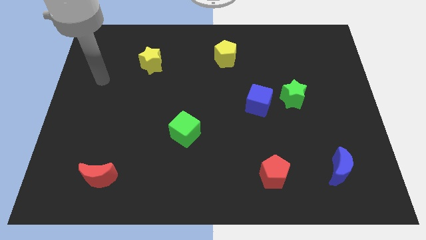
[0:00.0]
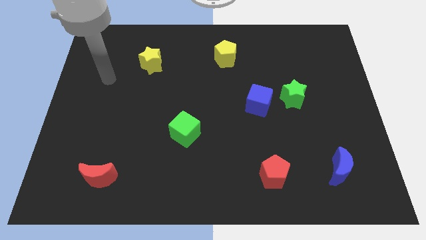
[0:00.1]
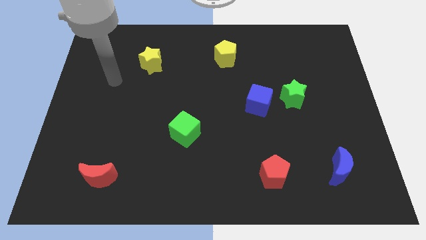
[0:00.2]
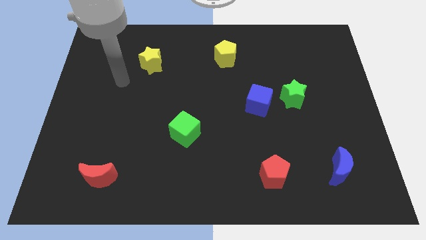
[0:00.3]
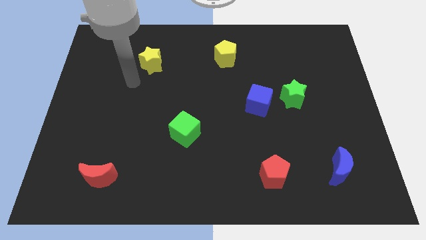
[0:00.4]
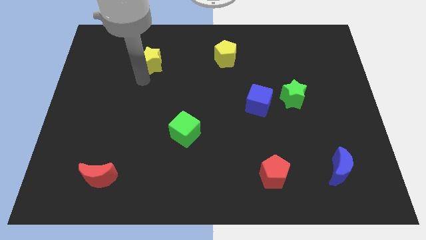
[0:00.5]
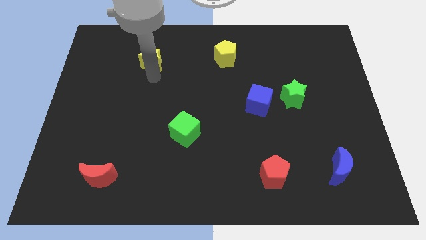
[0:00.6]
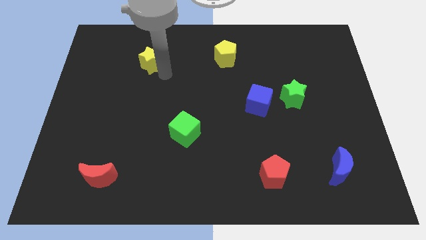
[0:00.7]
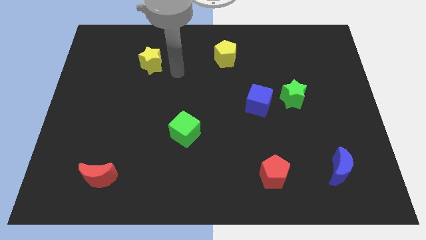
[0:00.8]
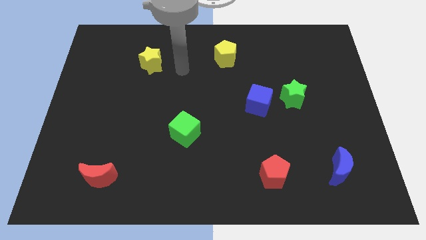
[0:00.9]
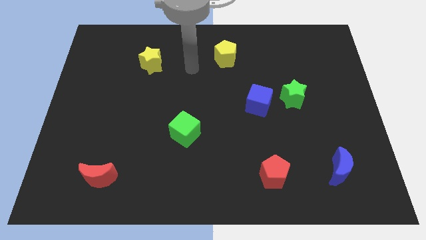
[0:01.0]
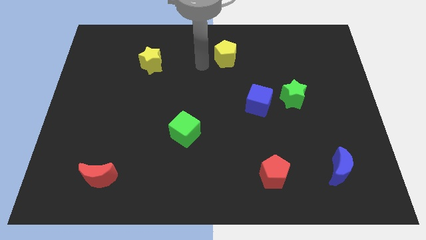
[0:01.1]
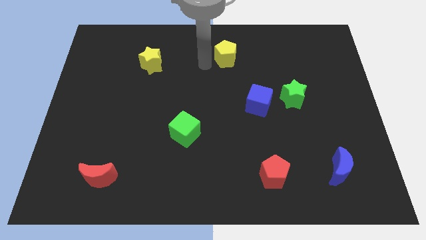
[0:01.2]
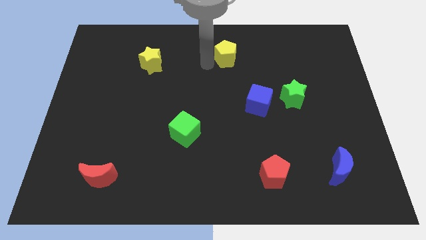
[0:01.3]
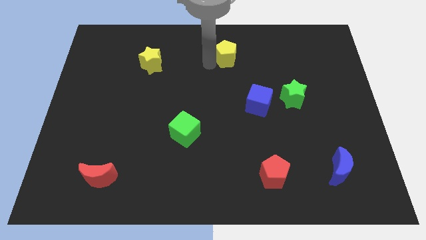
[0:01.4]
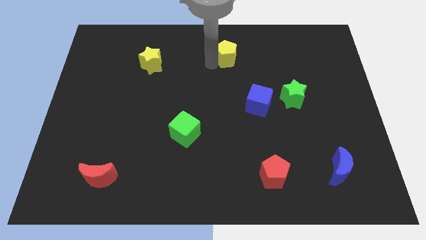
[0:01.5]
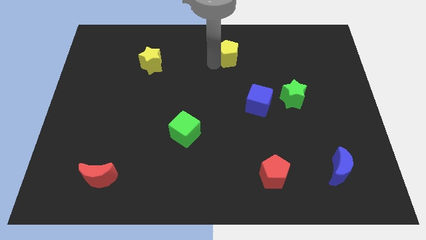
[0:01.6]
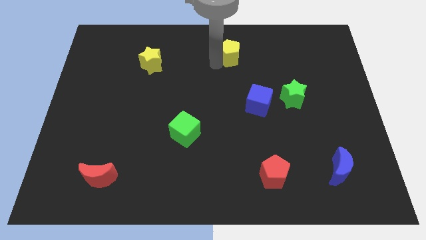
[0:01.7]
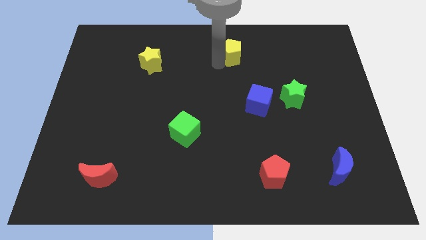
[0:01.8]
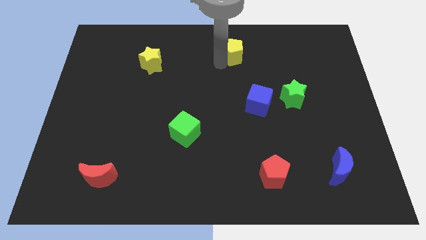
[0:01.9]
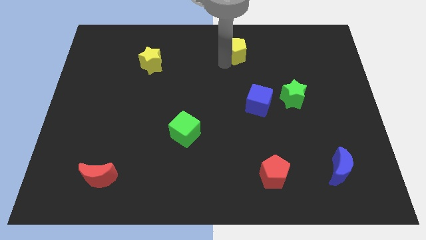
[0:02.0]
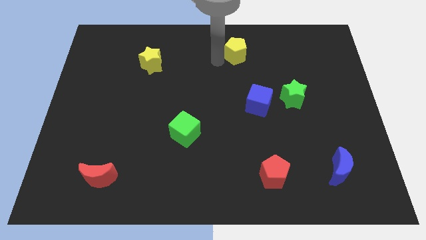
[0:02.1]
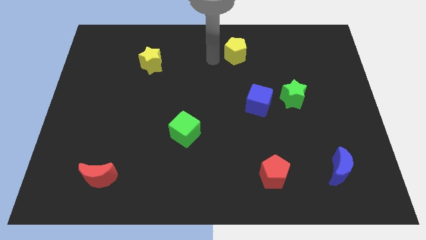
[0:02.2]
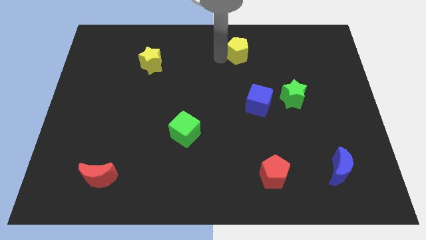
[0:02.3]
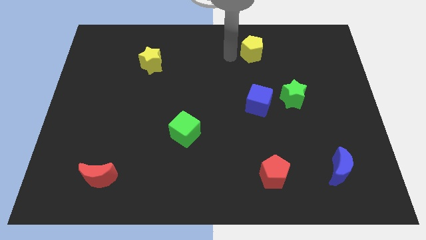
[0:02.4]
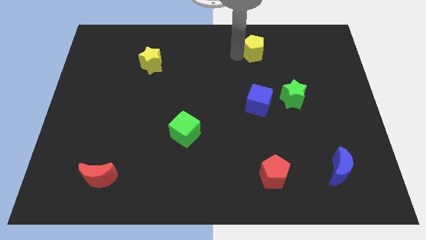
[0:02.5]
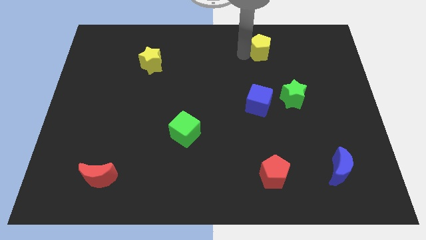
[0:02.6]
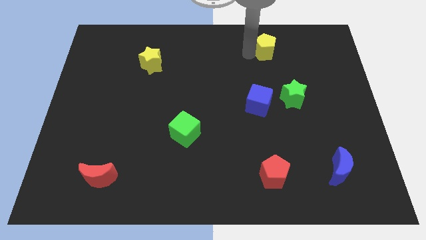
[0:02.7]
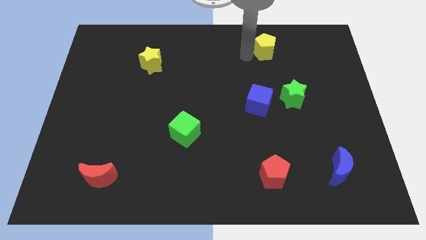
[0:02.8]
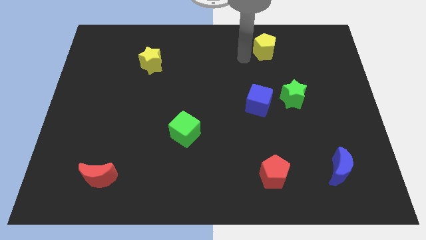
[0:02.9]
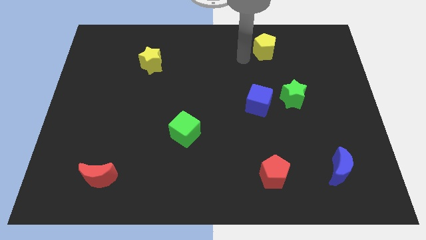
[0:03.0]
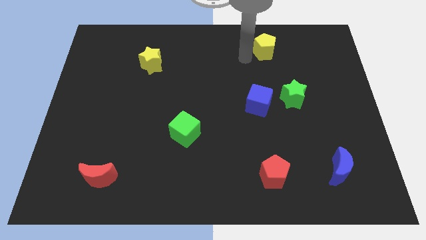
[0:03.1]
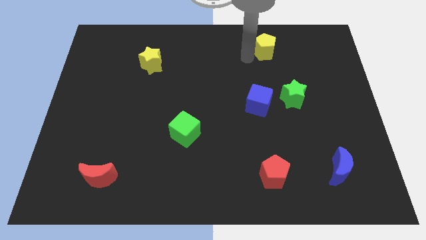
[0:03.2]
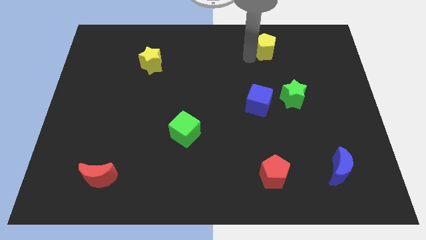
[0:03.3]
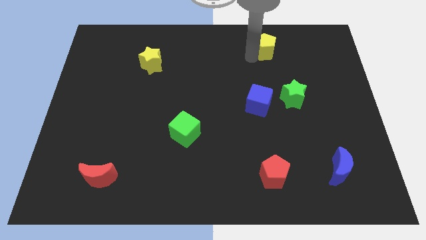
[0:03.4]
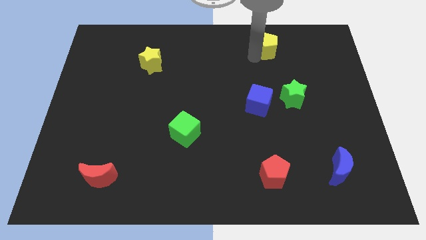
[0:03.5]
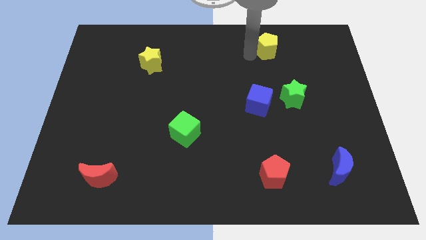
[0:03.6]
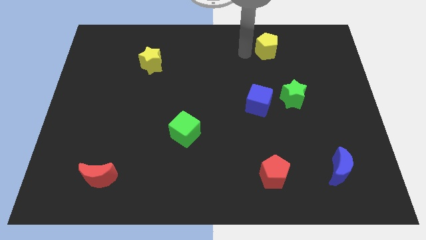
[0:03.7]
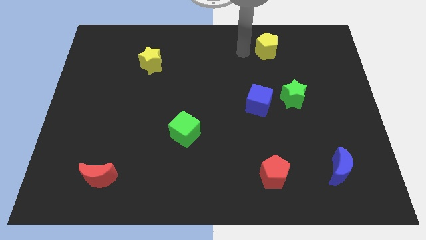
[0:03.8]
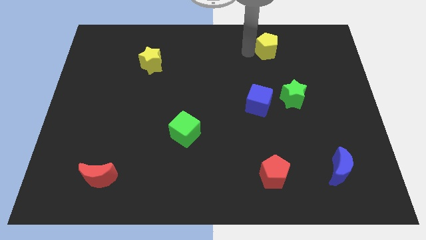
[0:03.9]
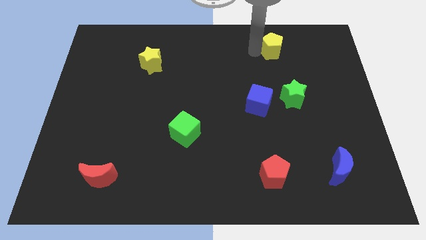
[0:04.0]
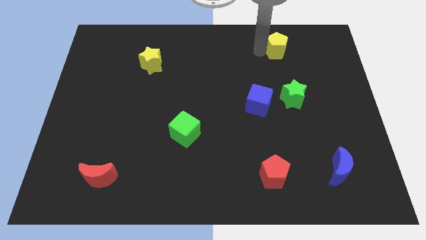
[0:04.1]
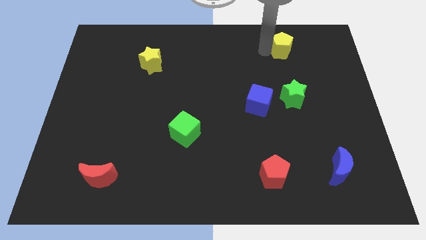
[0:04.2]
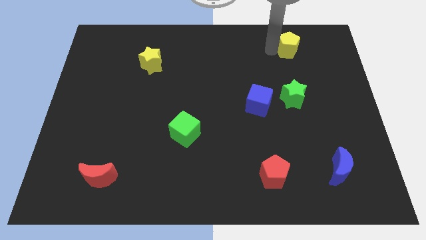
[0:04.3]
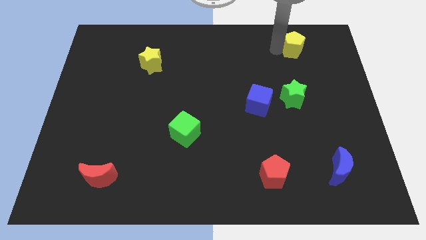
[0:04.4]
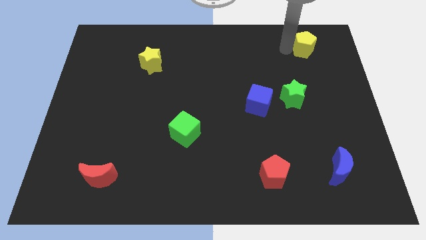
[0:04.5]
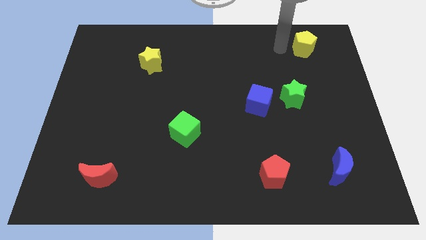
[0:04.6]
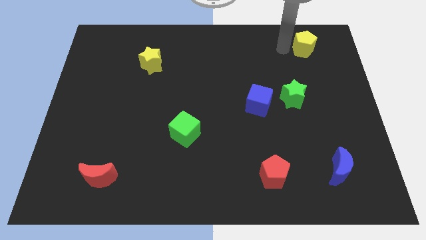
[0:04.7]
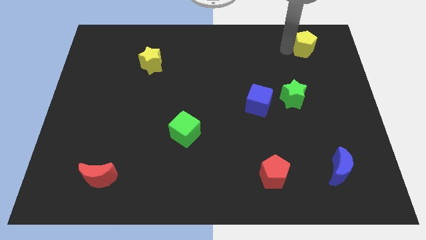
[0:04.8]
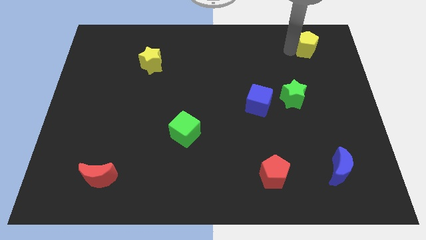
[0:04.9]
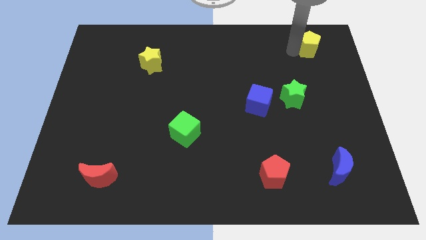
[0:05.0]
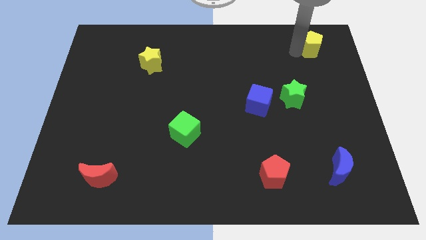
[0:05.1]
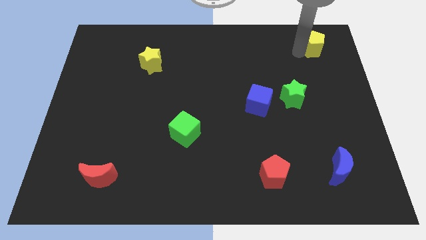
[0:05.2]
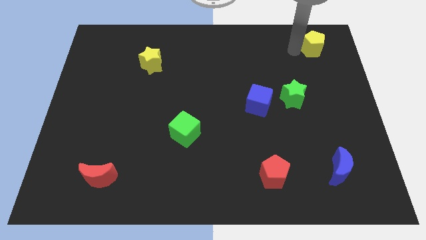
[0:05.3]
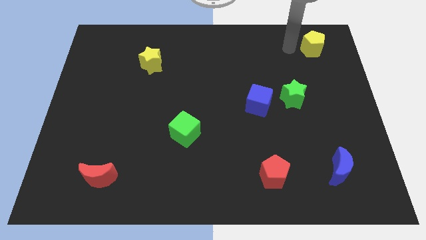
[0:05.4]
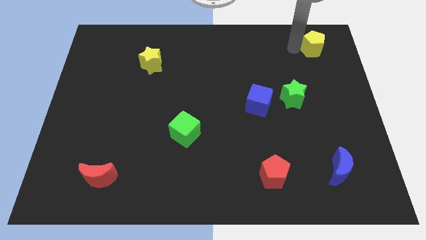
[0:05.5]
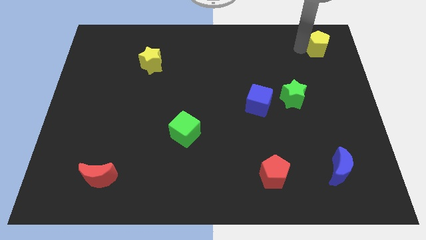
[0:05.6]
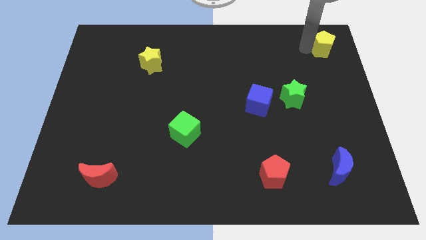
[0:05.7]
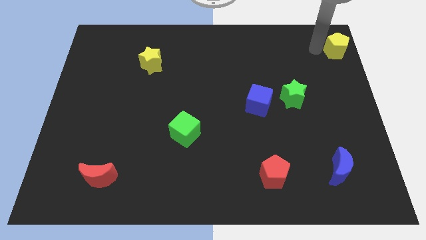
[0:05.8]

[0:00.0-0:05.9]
push the yellow pentagon to the top right corner

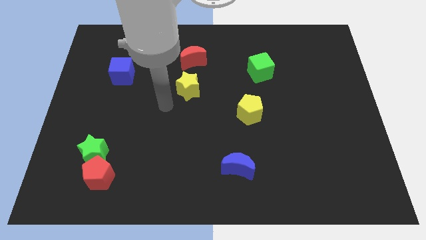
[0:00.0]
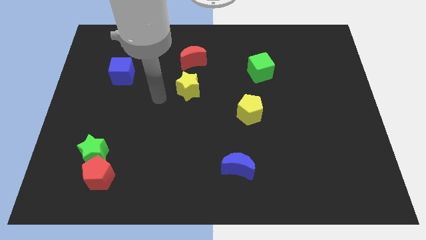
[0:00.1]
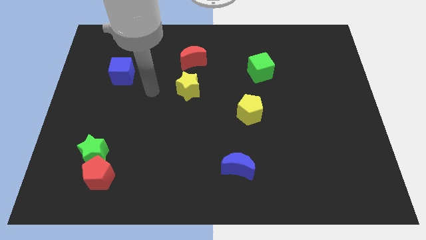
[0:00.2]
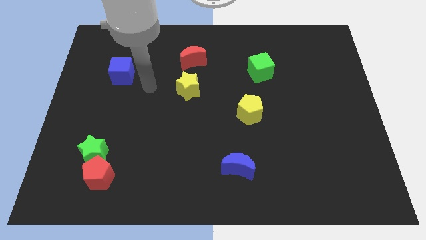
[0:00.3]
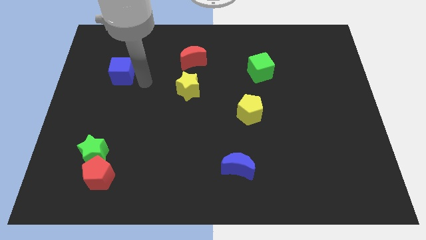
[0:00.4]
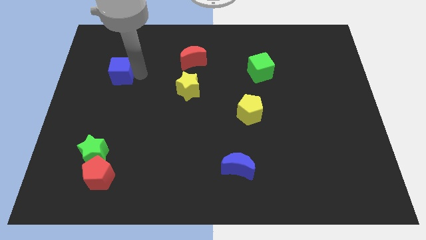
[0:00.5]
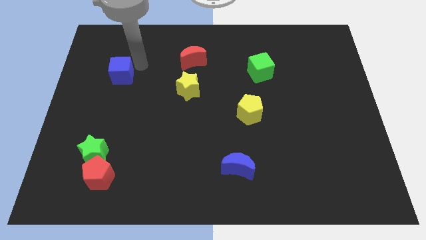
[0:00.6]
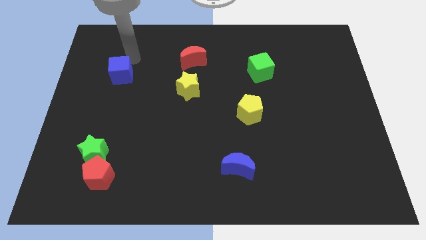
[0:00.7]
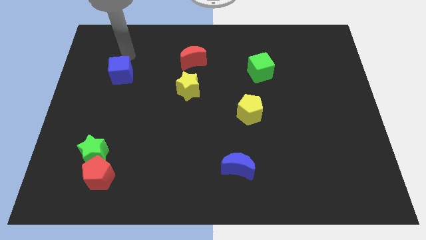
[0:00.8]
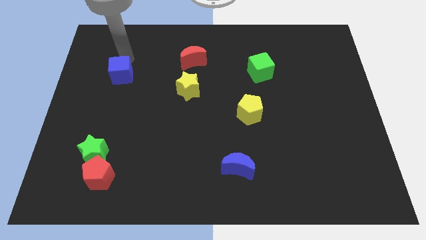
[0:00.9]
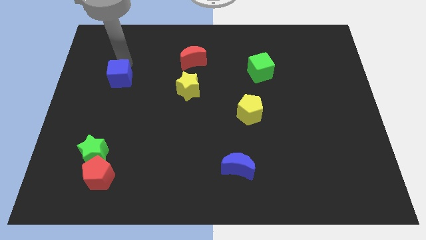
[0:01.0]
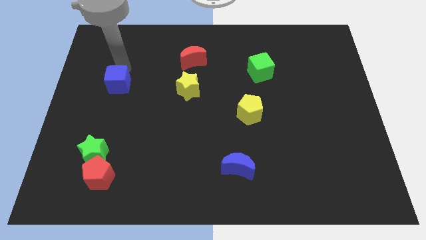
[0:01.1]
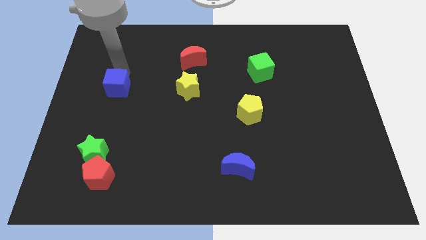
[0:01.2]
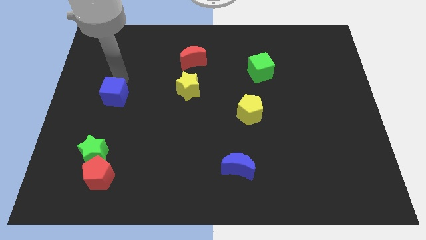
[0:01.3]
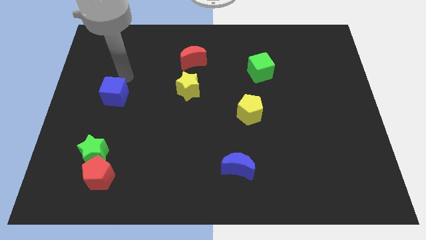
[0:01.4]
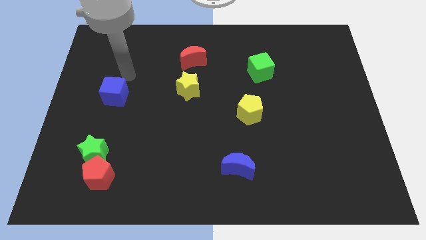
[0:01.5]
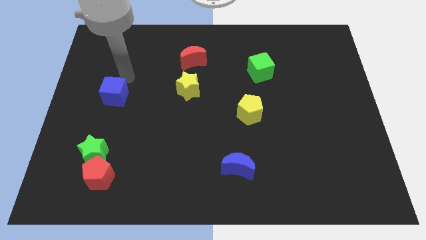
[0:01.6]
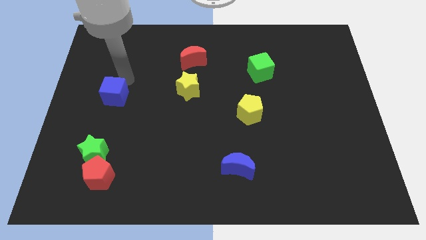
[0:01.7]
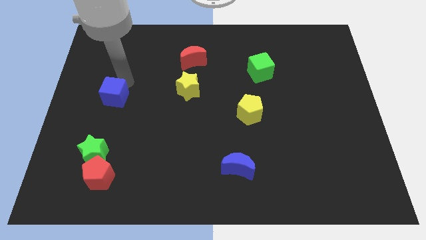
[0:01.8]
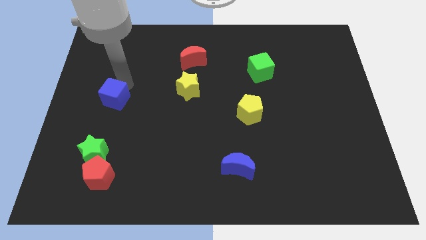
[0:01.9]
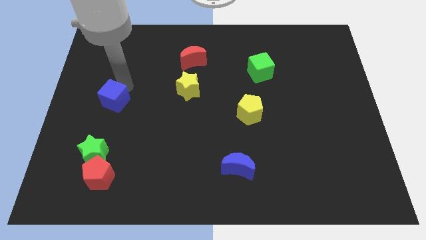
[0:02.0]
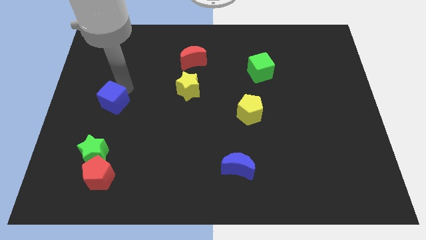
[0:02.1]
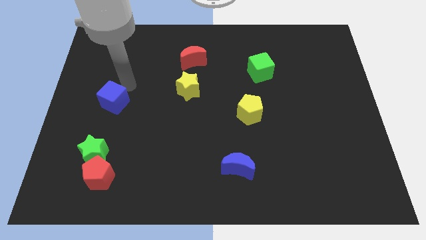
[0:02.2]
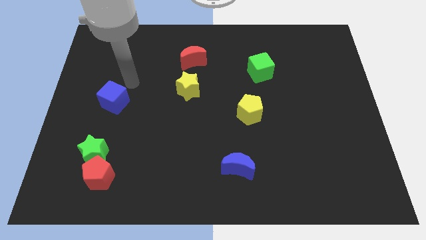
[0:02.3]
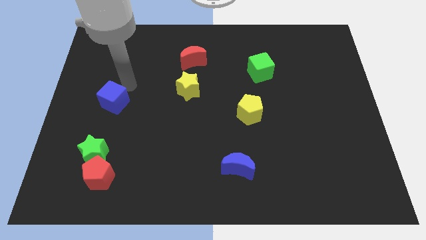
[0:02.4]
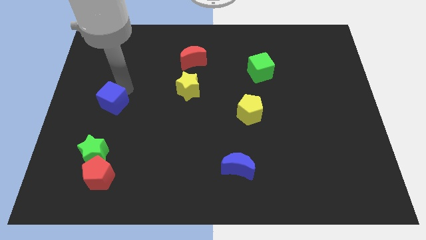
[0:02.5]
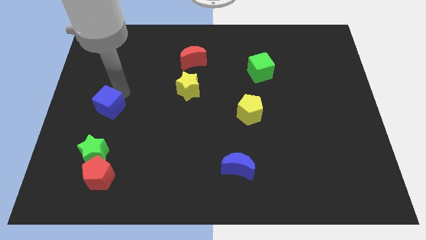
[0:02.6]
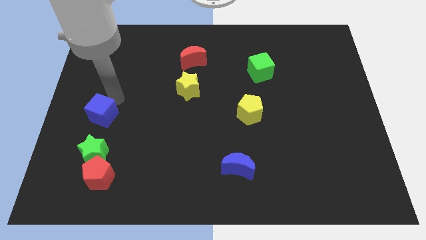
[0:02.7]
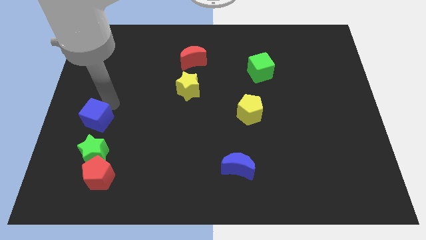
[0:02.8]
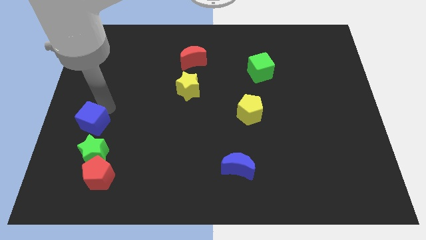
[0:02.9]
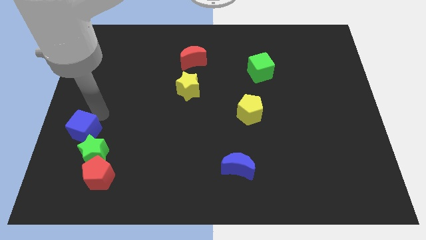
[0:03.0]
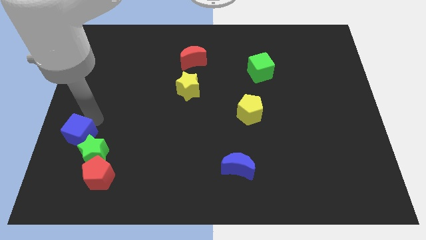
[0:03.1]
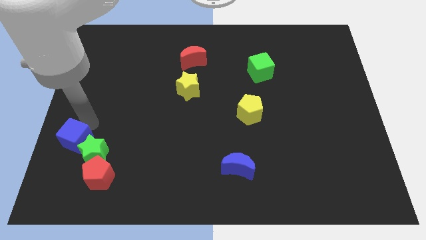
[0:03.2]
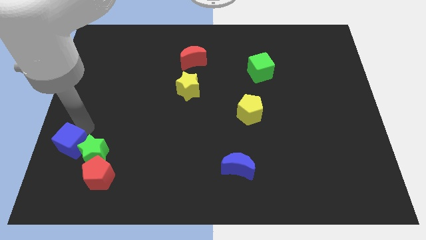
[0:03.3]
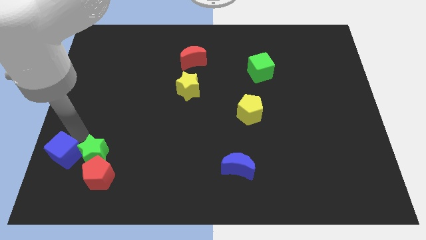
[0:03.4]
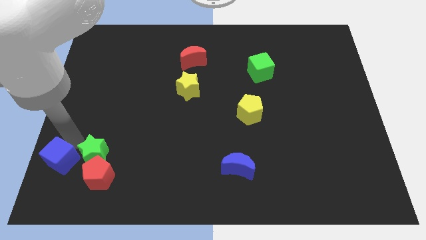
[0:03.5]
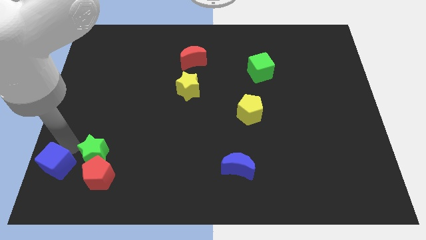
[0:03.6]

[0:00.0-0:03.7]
put the blue cube to the bottom left corner
